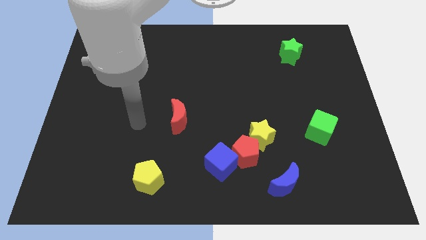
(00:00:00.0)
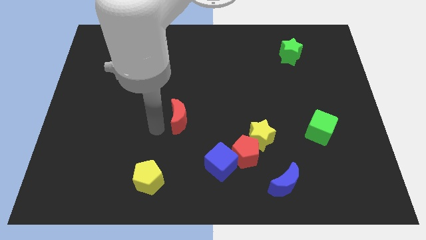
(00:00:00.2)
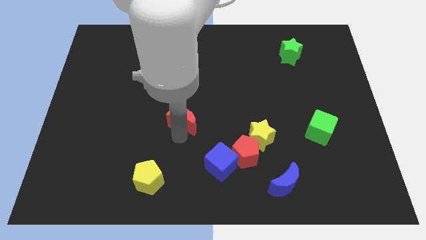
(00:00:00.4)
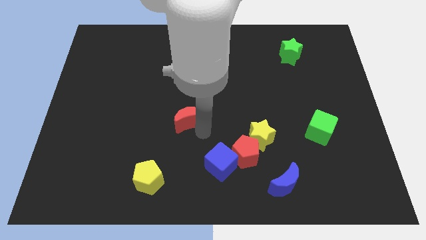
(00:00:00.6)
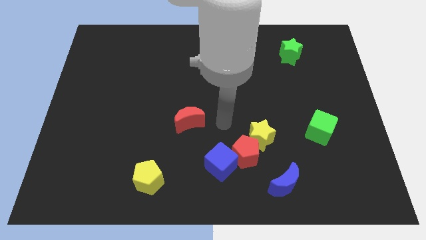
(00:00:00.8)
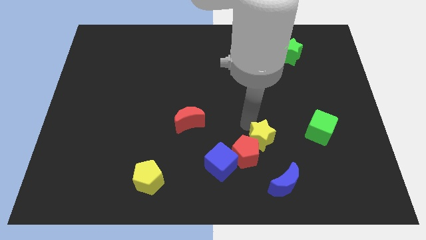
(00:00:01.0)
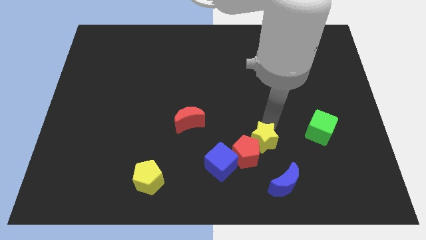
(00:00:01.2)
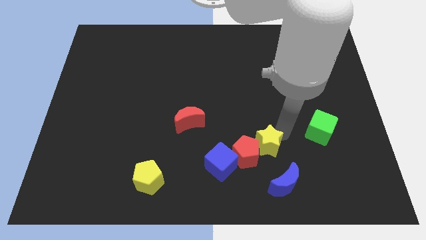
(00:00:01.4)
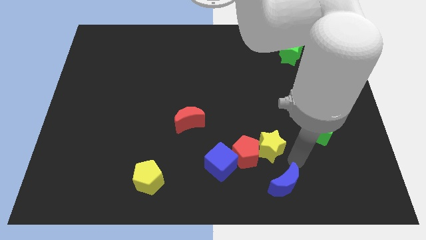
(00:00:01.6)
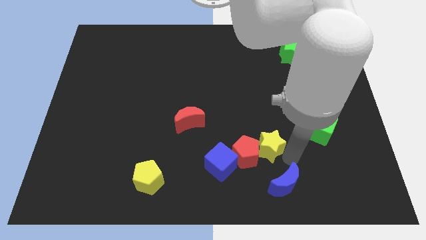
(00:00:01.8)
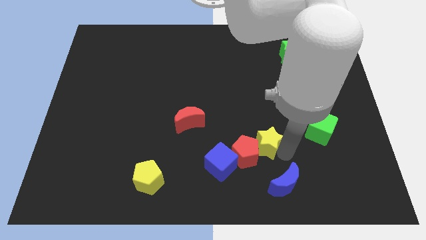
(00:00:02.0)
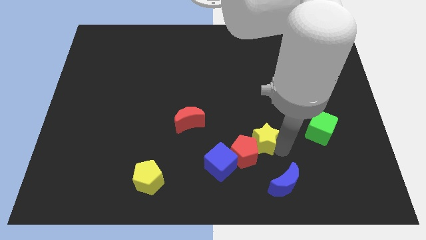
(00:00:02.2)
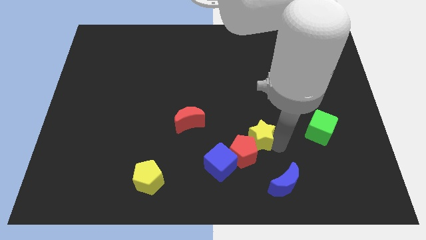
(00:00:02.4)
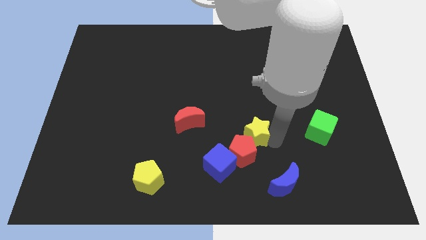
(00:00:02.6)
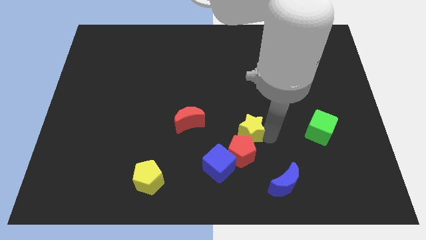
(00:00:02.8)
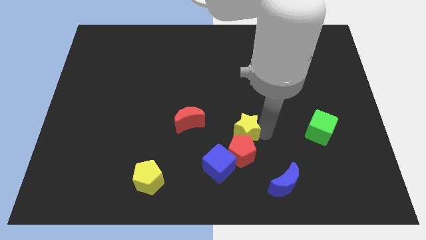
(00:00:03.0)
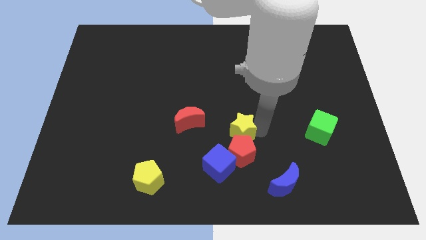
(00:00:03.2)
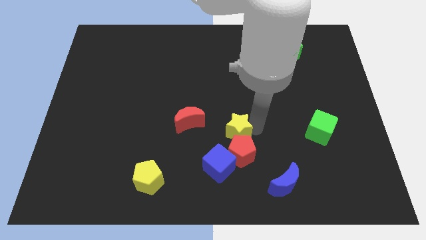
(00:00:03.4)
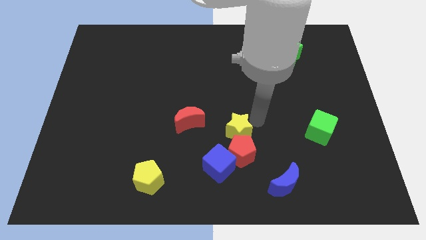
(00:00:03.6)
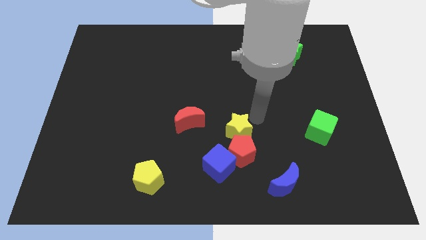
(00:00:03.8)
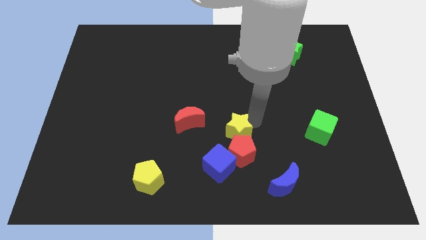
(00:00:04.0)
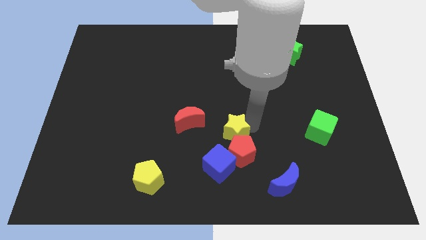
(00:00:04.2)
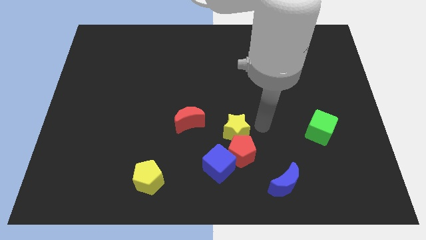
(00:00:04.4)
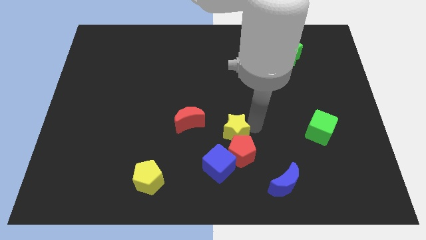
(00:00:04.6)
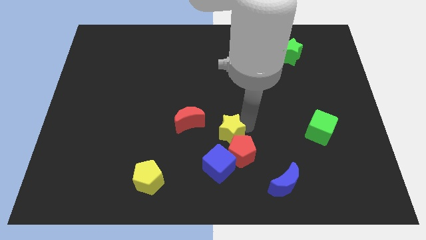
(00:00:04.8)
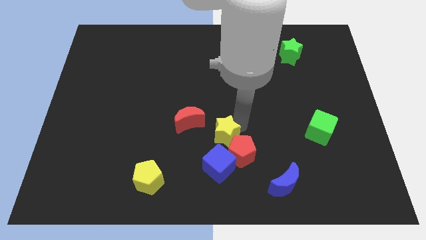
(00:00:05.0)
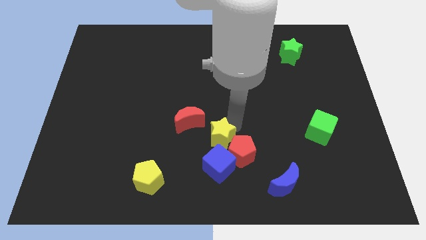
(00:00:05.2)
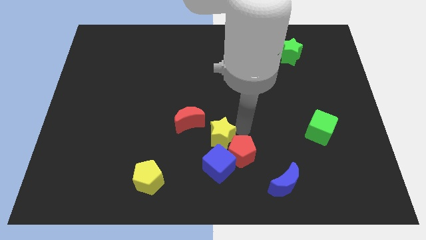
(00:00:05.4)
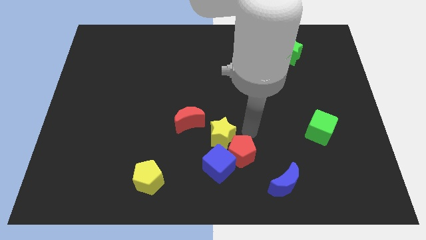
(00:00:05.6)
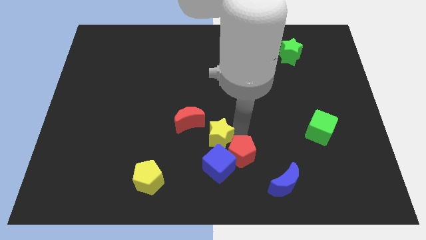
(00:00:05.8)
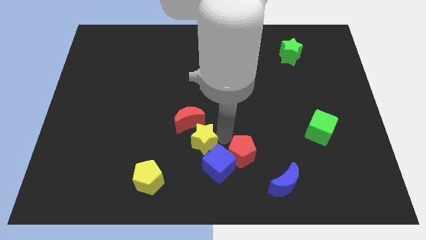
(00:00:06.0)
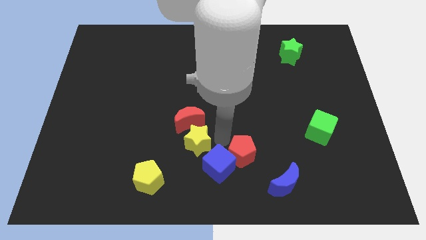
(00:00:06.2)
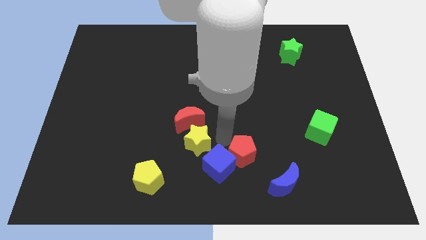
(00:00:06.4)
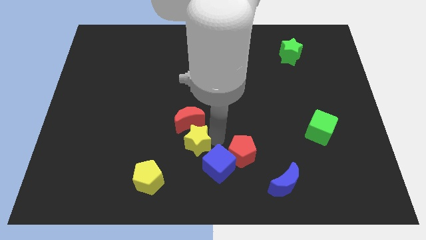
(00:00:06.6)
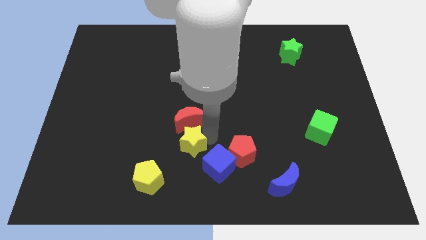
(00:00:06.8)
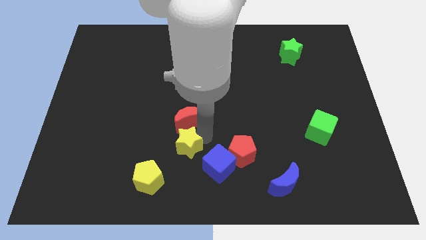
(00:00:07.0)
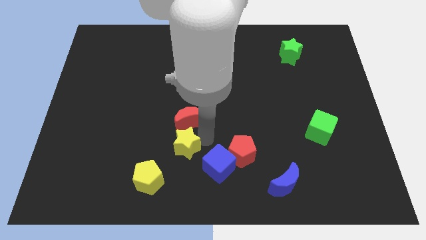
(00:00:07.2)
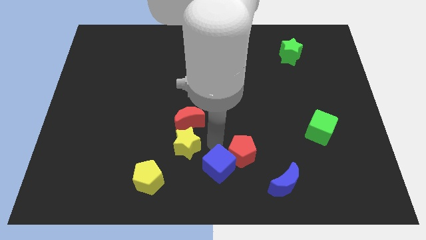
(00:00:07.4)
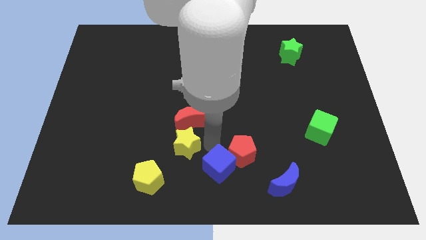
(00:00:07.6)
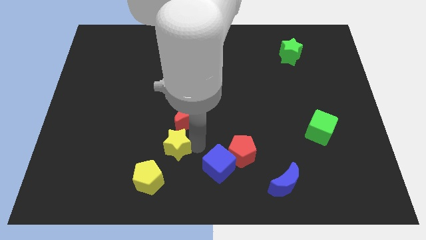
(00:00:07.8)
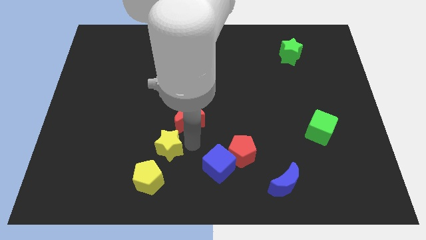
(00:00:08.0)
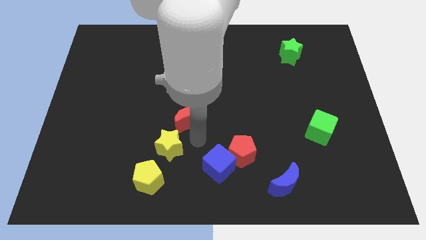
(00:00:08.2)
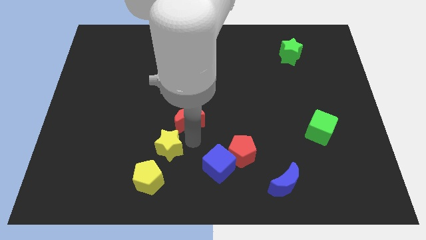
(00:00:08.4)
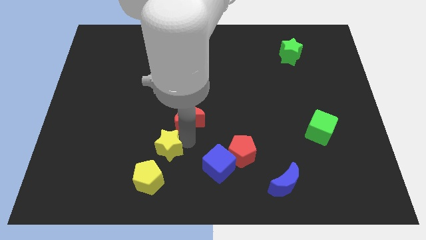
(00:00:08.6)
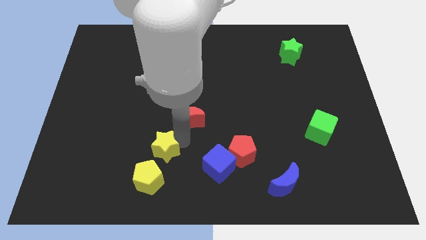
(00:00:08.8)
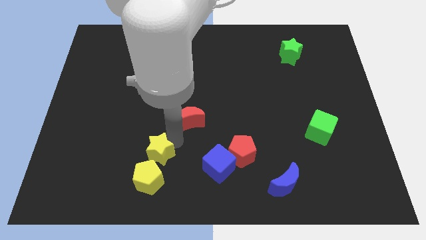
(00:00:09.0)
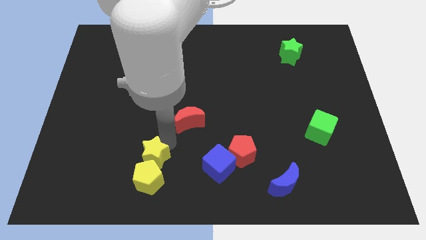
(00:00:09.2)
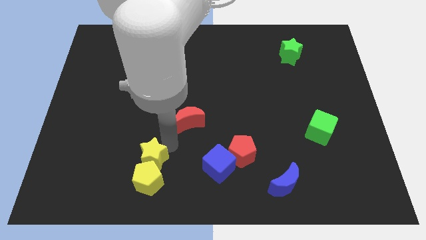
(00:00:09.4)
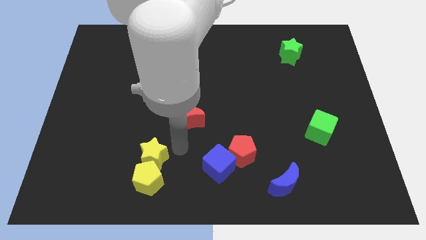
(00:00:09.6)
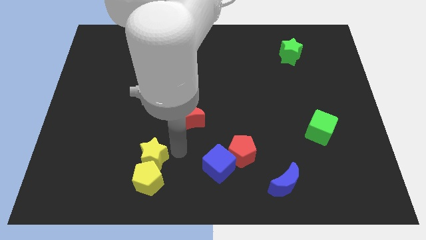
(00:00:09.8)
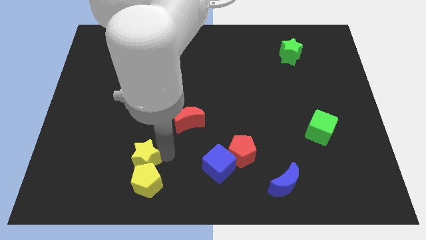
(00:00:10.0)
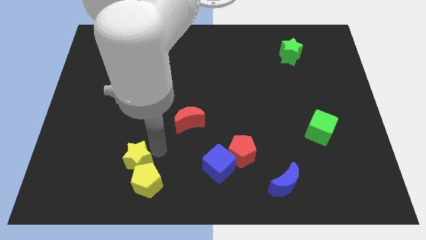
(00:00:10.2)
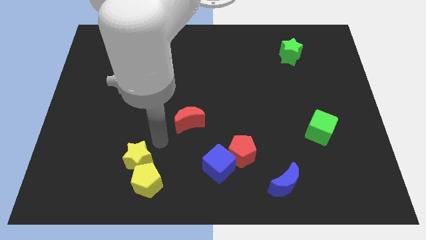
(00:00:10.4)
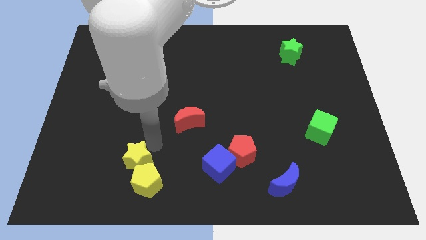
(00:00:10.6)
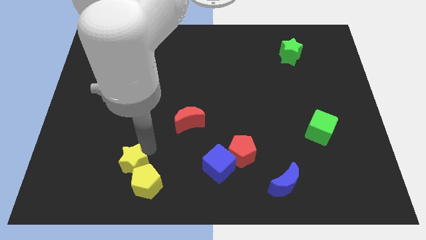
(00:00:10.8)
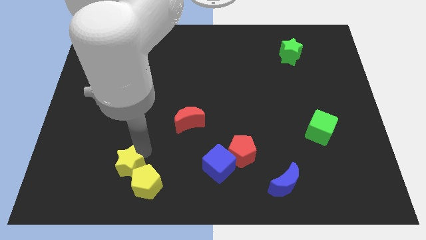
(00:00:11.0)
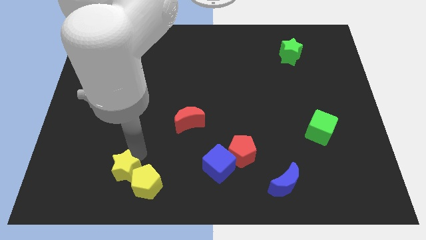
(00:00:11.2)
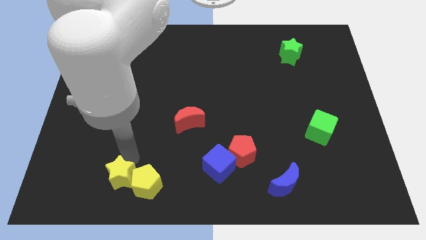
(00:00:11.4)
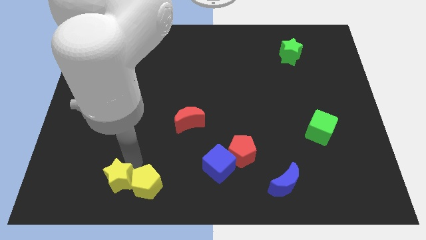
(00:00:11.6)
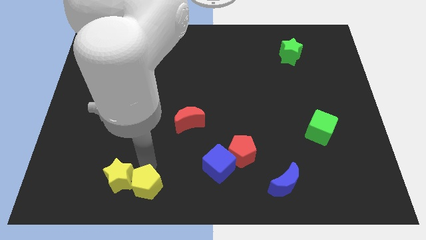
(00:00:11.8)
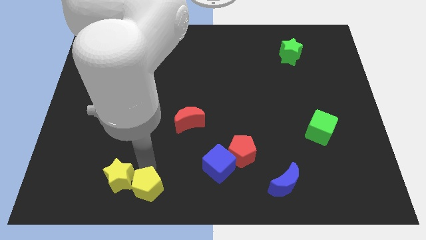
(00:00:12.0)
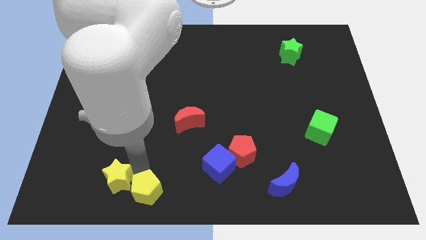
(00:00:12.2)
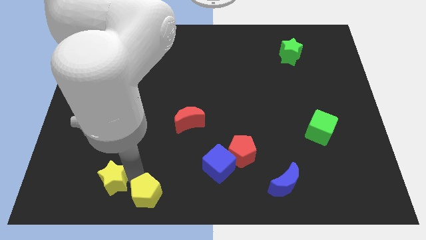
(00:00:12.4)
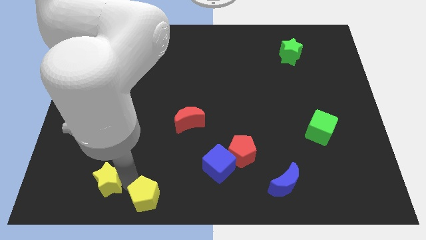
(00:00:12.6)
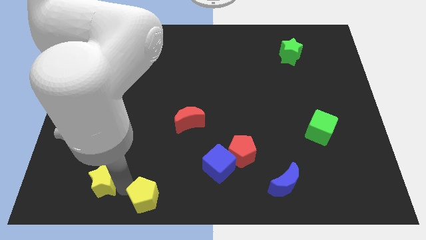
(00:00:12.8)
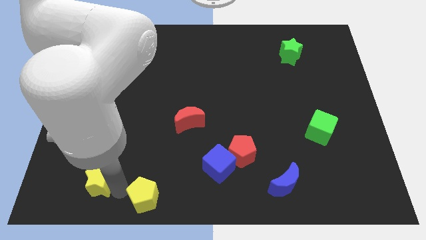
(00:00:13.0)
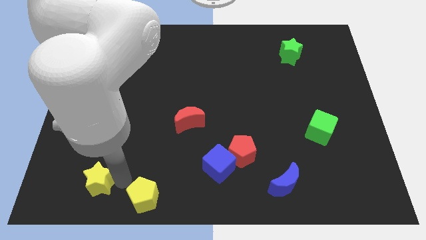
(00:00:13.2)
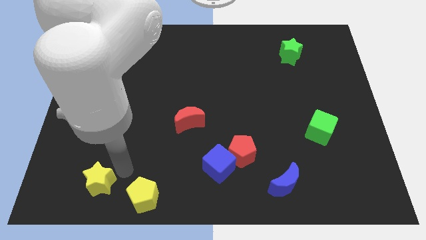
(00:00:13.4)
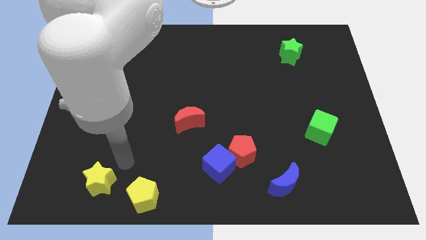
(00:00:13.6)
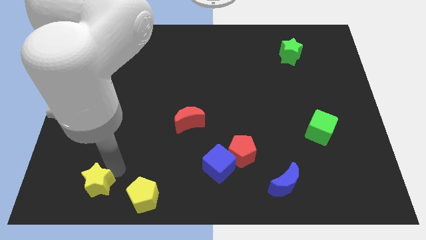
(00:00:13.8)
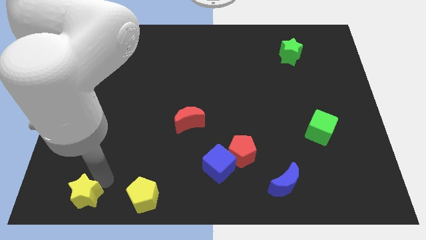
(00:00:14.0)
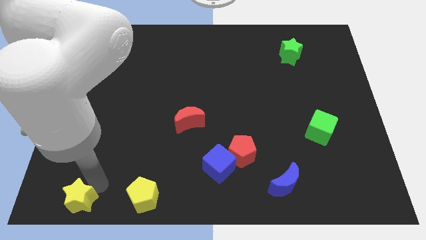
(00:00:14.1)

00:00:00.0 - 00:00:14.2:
put the yellow star to the bottom left of the board
